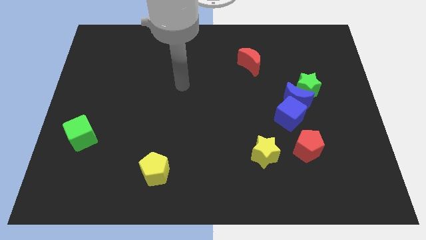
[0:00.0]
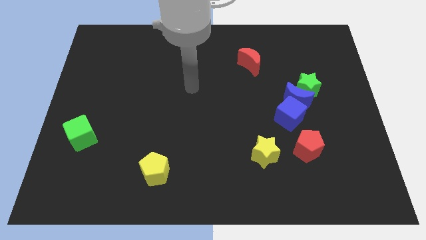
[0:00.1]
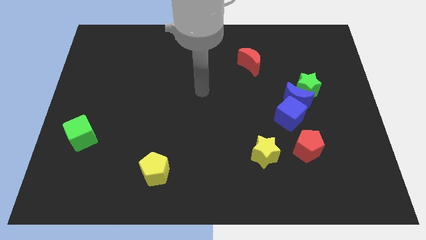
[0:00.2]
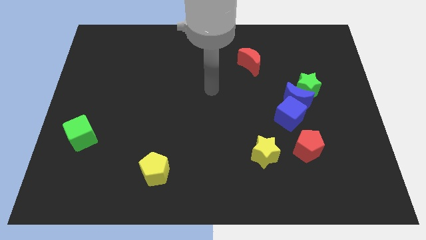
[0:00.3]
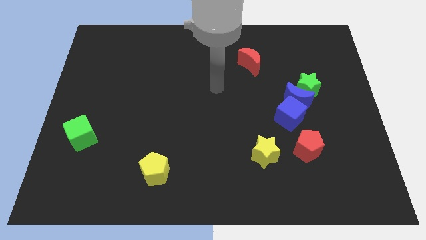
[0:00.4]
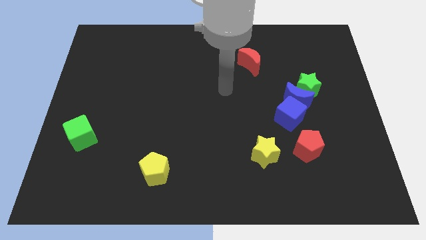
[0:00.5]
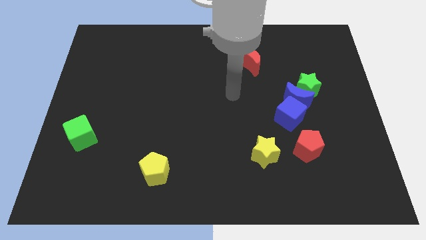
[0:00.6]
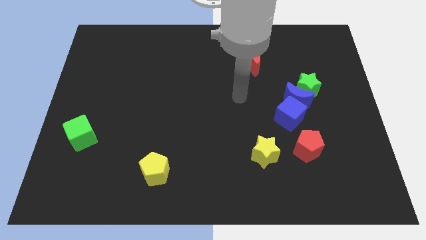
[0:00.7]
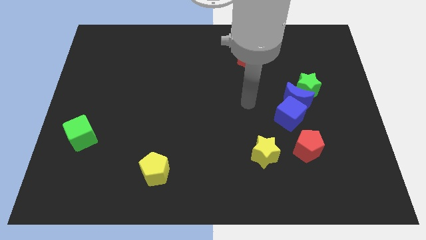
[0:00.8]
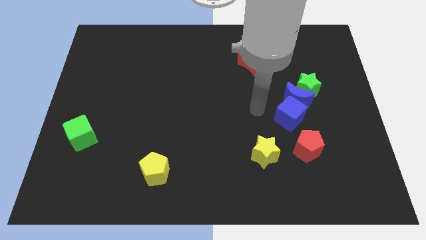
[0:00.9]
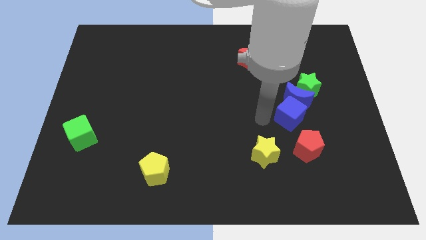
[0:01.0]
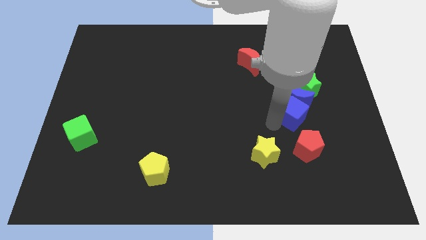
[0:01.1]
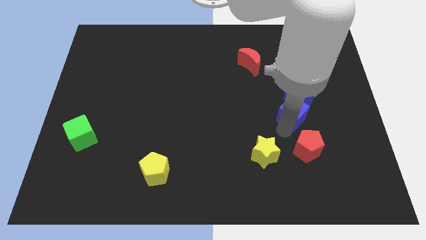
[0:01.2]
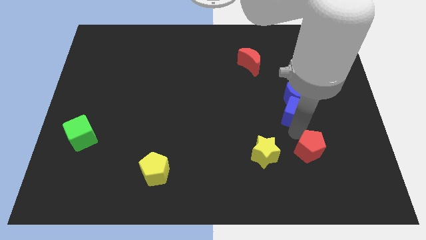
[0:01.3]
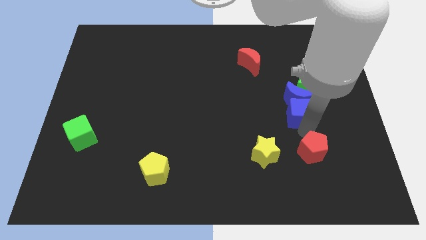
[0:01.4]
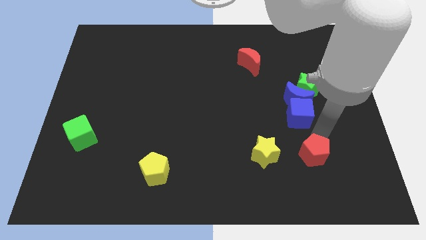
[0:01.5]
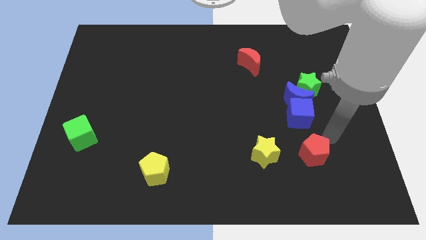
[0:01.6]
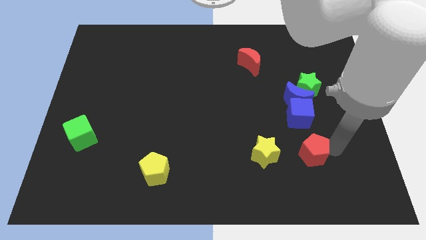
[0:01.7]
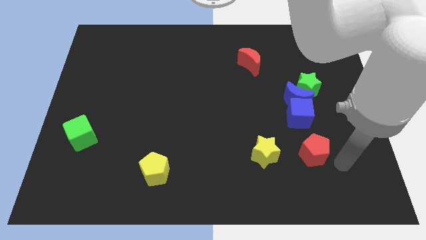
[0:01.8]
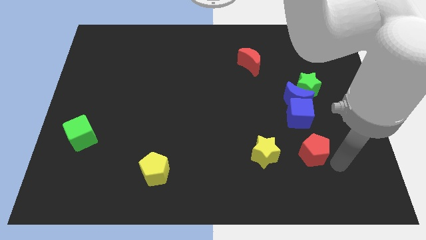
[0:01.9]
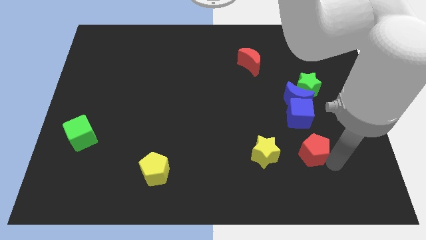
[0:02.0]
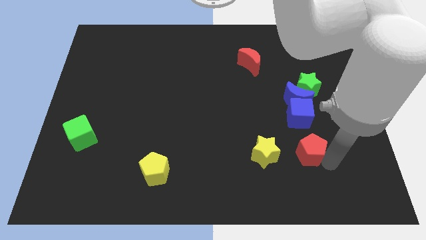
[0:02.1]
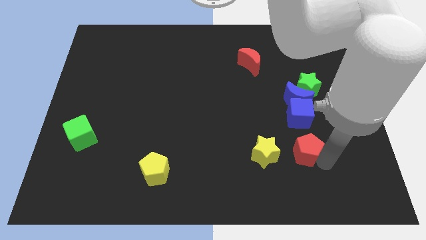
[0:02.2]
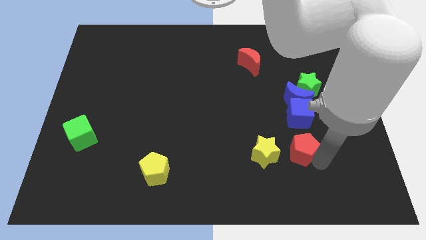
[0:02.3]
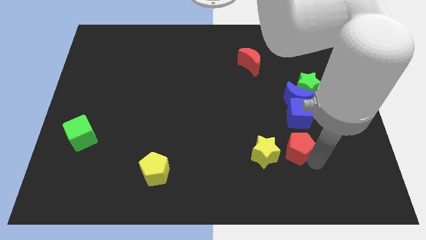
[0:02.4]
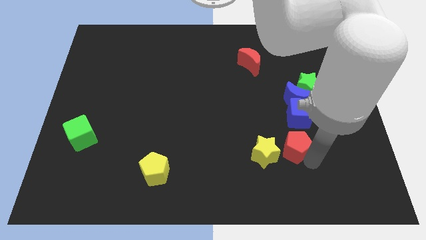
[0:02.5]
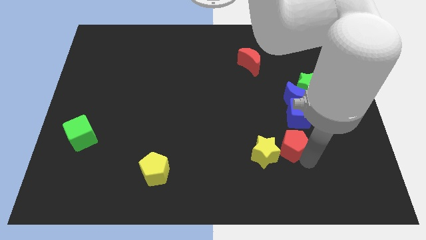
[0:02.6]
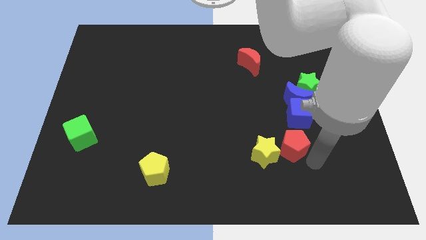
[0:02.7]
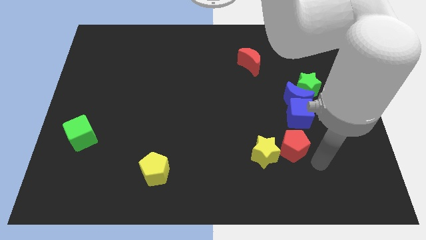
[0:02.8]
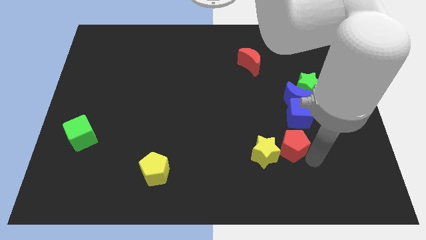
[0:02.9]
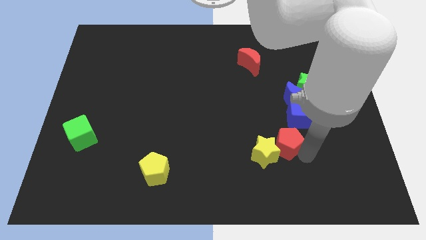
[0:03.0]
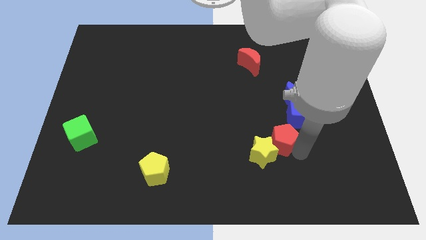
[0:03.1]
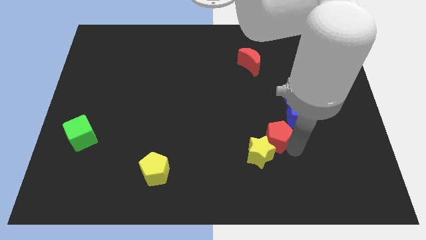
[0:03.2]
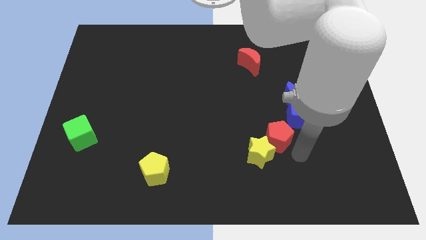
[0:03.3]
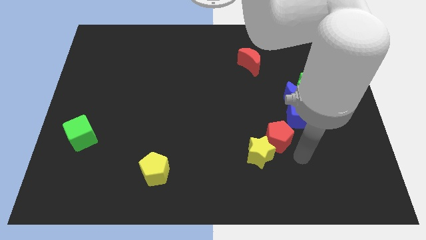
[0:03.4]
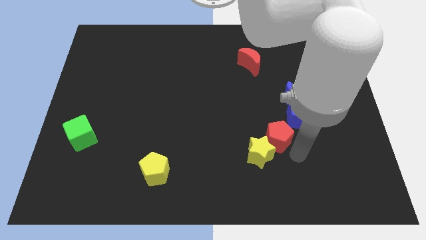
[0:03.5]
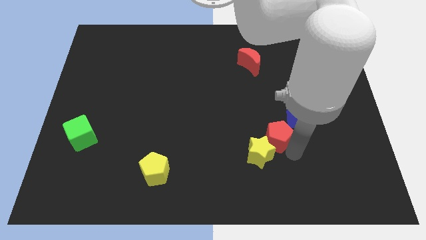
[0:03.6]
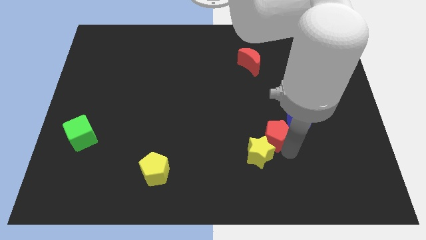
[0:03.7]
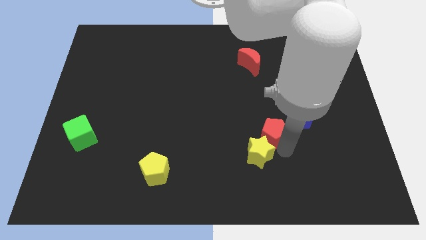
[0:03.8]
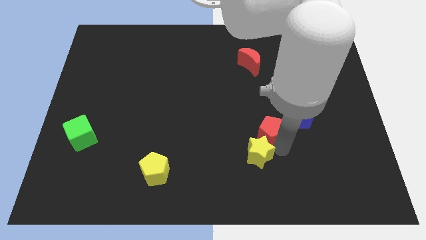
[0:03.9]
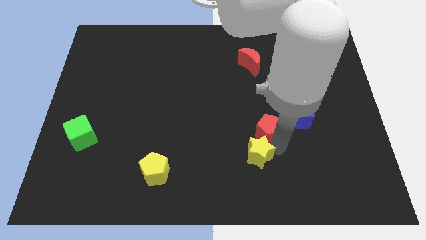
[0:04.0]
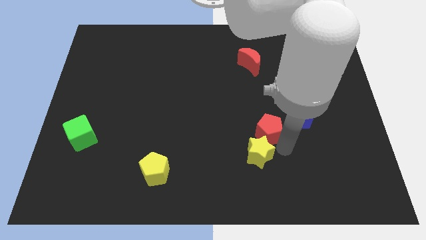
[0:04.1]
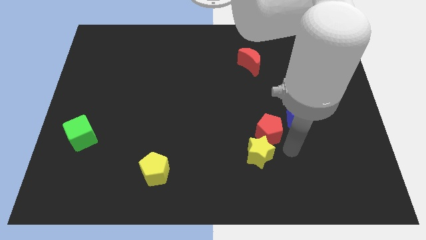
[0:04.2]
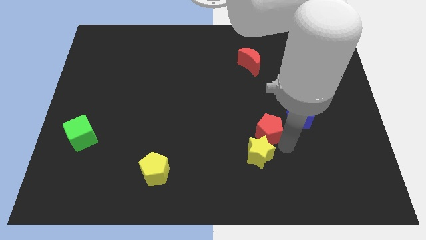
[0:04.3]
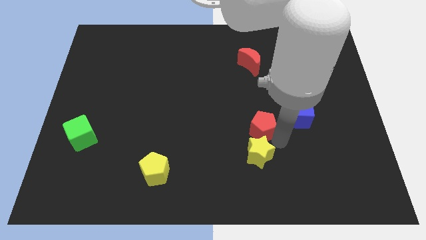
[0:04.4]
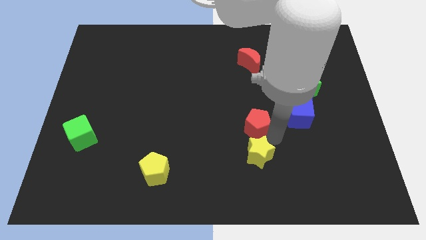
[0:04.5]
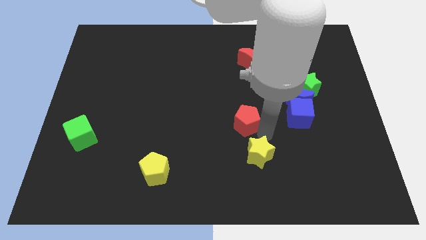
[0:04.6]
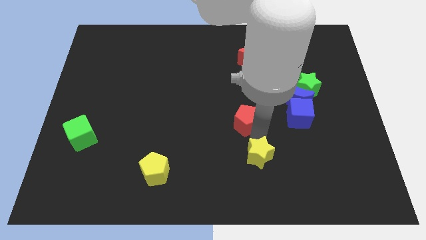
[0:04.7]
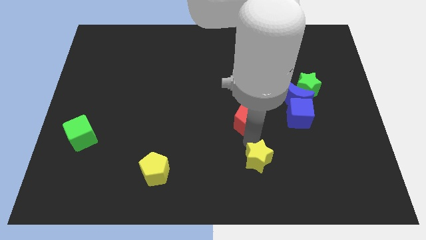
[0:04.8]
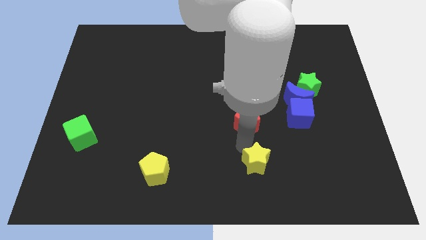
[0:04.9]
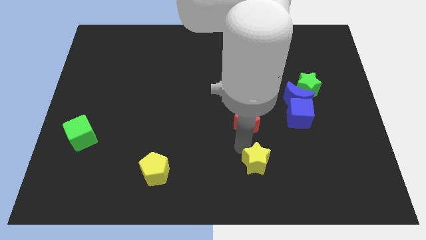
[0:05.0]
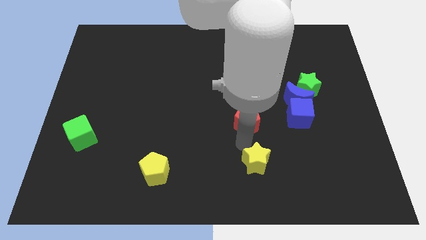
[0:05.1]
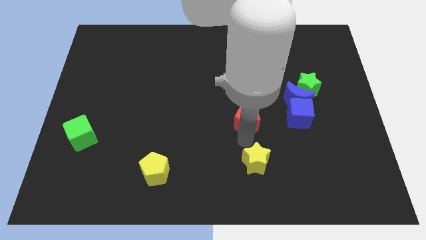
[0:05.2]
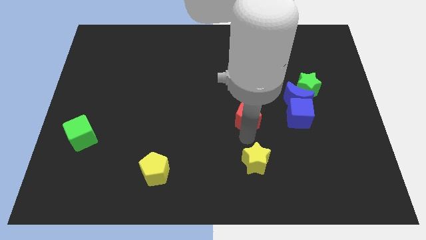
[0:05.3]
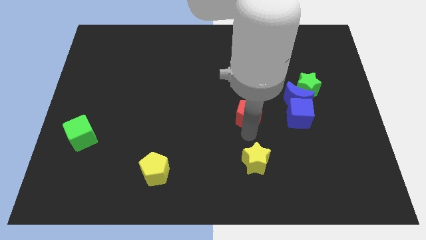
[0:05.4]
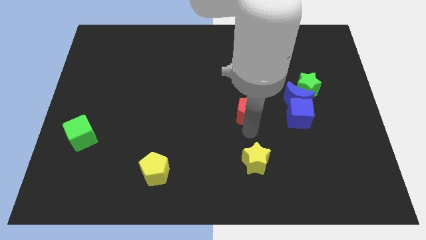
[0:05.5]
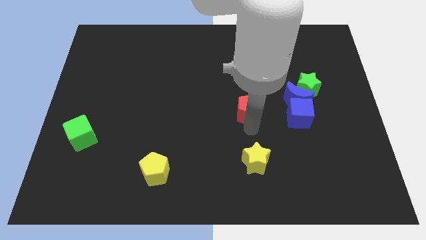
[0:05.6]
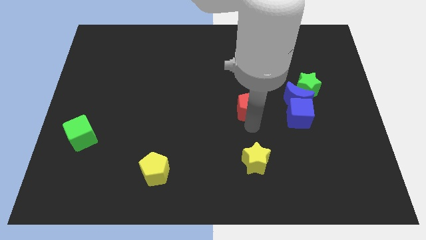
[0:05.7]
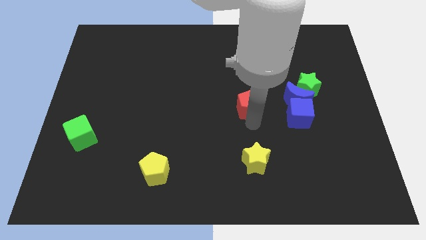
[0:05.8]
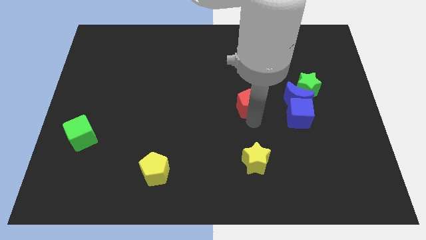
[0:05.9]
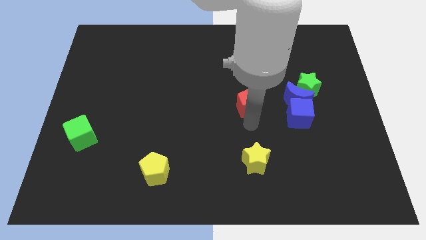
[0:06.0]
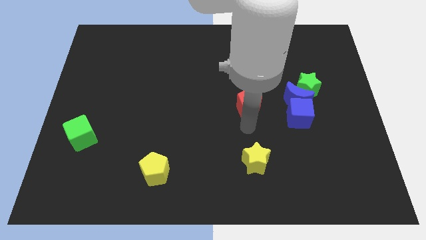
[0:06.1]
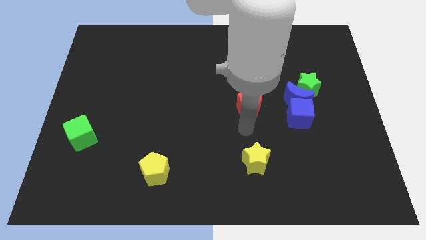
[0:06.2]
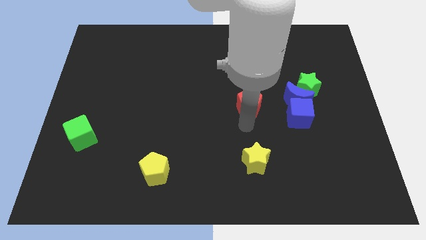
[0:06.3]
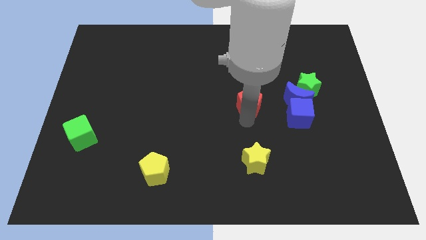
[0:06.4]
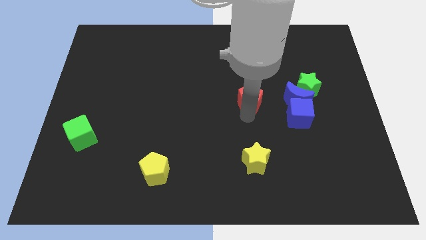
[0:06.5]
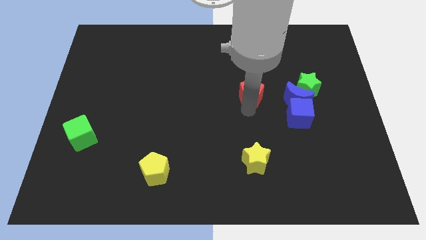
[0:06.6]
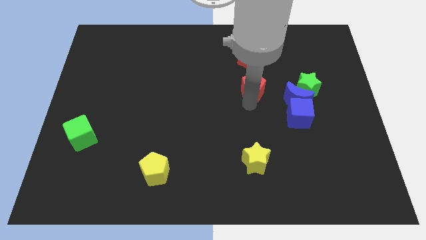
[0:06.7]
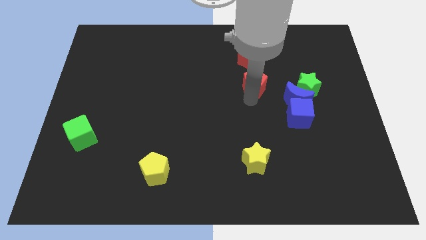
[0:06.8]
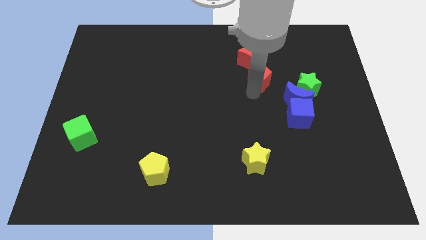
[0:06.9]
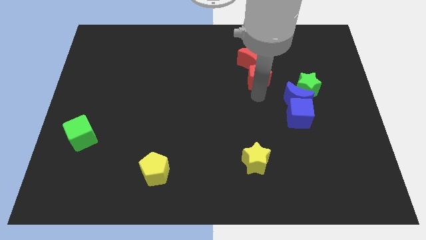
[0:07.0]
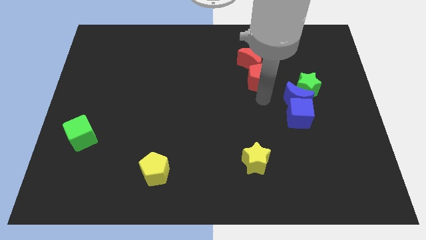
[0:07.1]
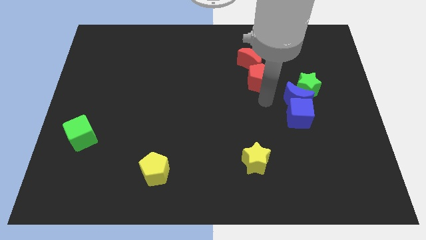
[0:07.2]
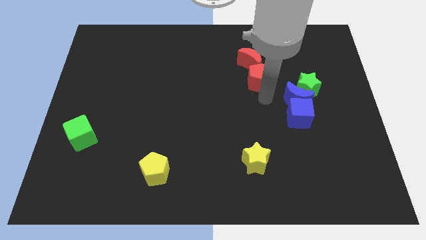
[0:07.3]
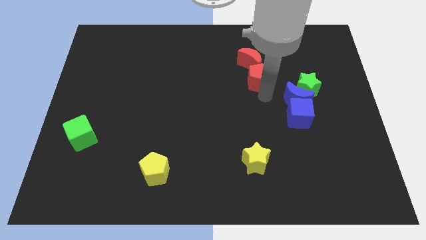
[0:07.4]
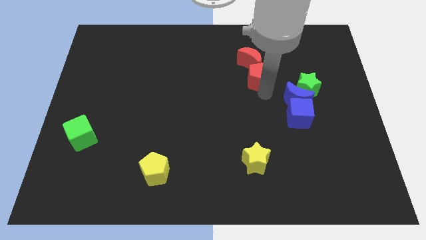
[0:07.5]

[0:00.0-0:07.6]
put the red pentagon to the red moon

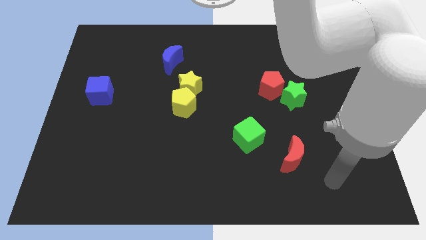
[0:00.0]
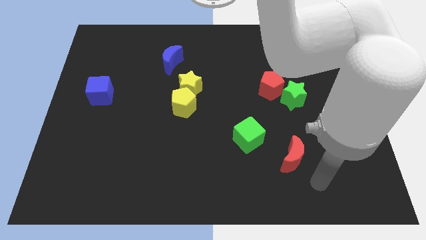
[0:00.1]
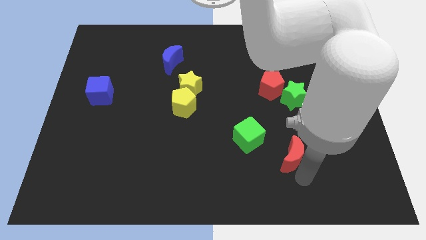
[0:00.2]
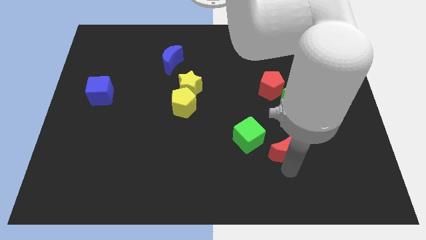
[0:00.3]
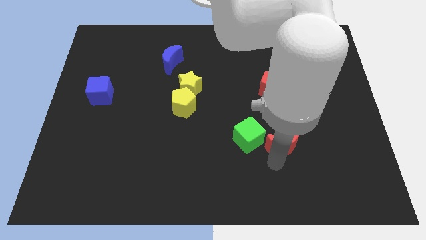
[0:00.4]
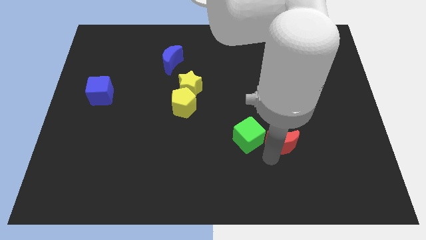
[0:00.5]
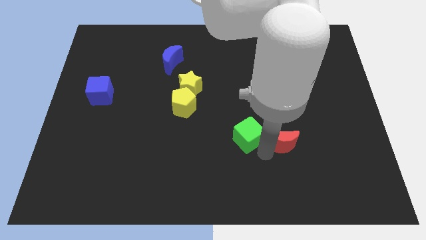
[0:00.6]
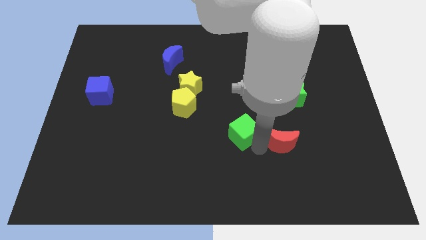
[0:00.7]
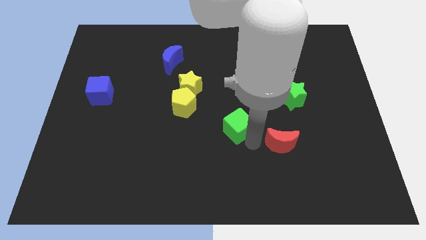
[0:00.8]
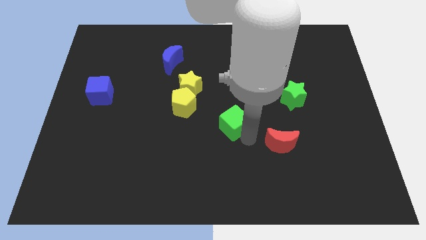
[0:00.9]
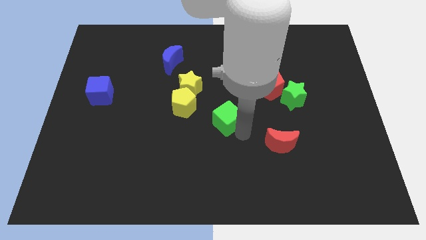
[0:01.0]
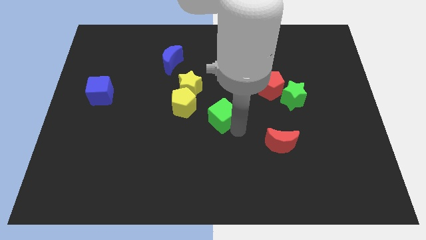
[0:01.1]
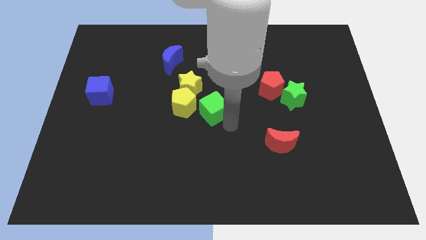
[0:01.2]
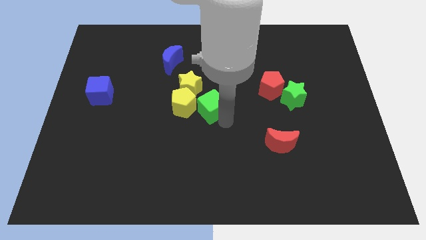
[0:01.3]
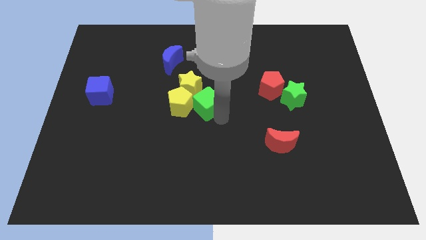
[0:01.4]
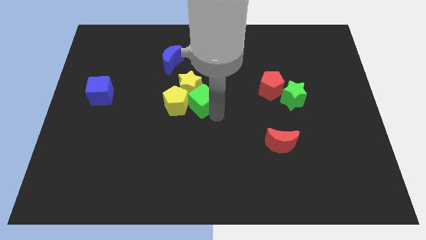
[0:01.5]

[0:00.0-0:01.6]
put the green cube next to the yellow star
